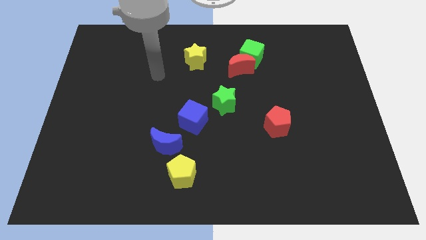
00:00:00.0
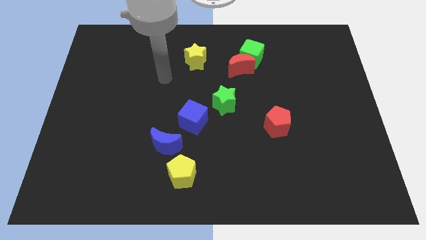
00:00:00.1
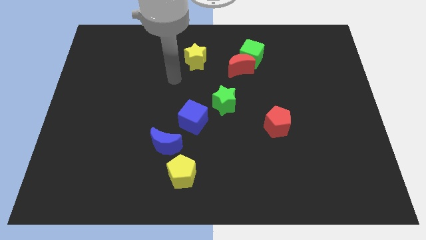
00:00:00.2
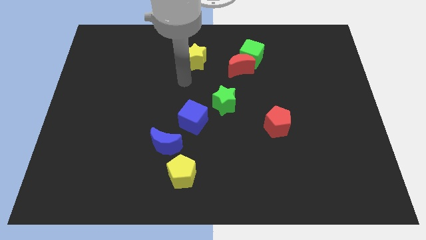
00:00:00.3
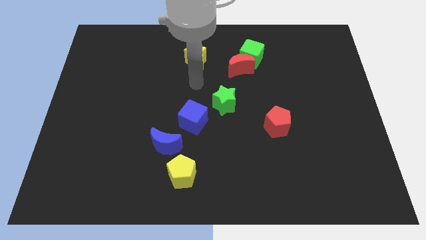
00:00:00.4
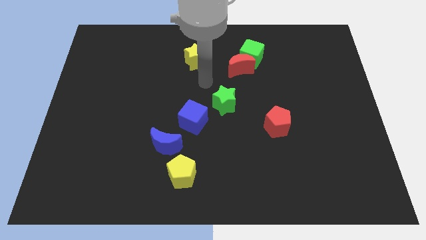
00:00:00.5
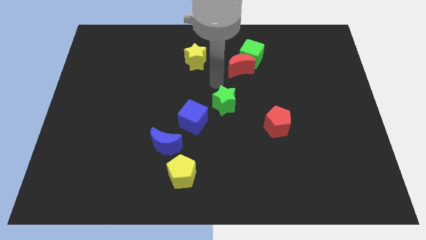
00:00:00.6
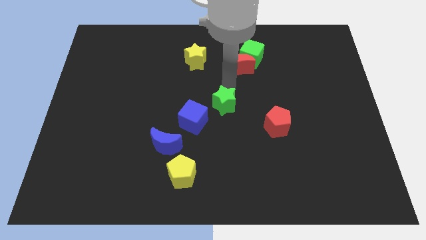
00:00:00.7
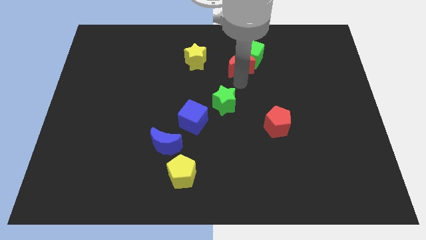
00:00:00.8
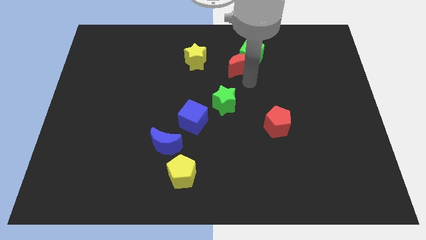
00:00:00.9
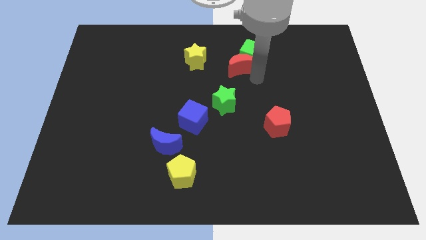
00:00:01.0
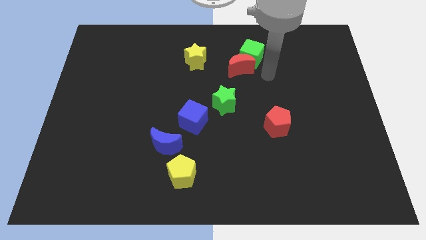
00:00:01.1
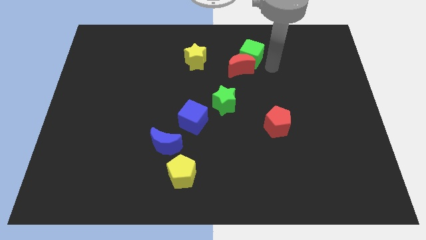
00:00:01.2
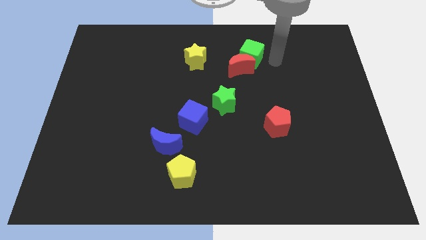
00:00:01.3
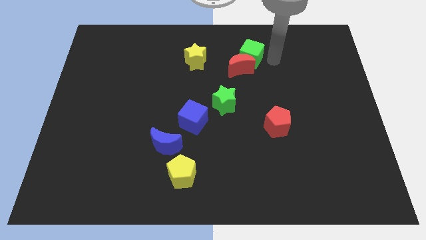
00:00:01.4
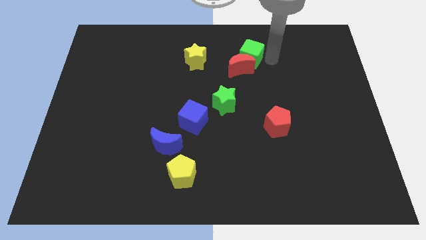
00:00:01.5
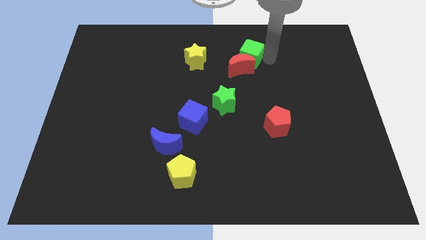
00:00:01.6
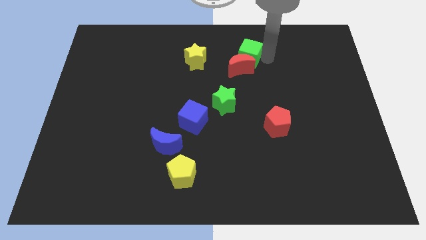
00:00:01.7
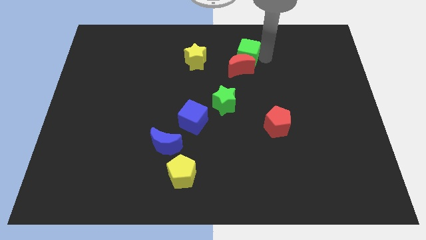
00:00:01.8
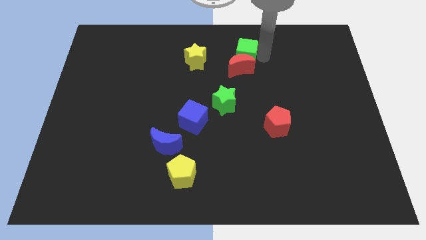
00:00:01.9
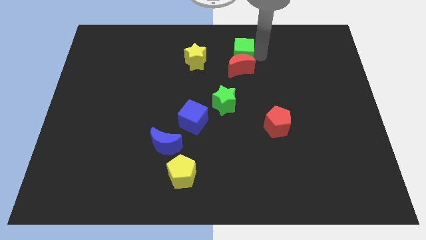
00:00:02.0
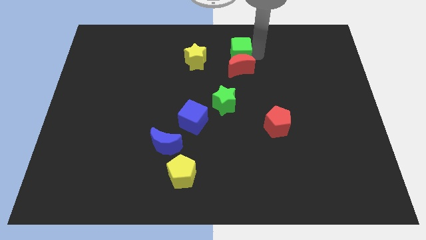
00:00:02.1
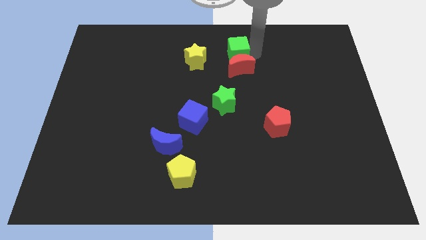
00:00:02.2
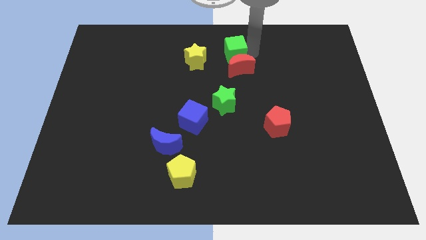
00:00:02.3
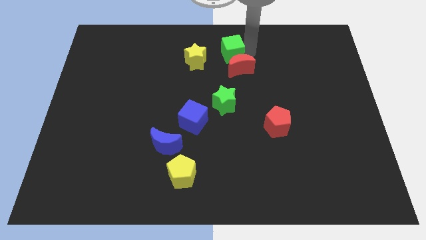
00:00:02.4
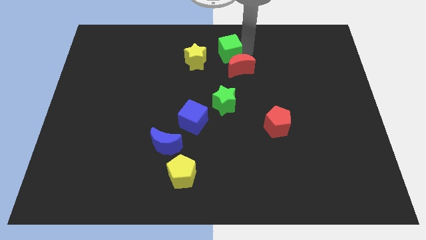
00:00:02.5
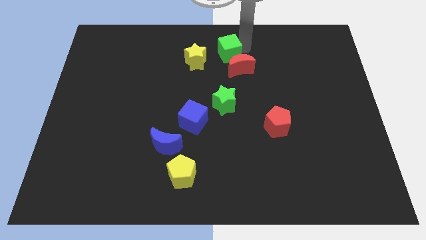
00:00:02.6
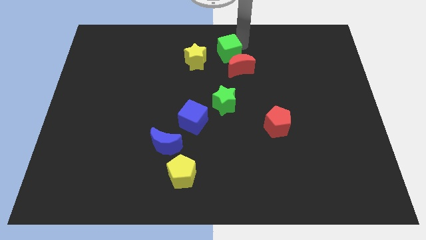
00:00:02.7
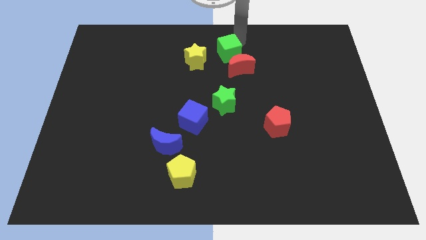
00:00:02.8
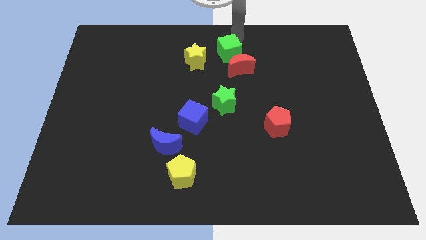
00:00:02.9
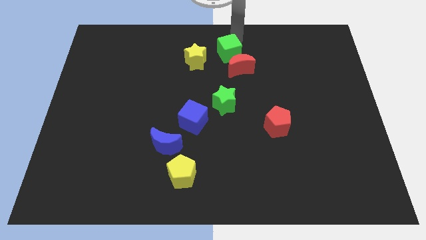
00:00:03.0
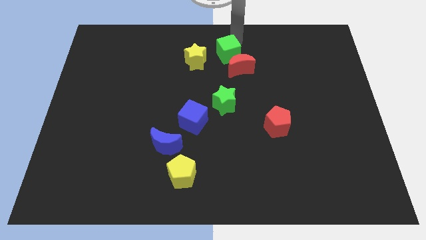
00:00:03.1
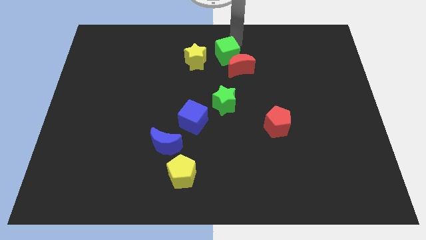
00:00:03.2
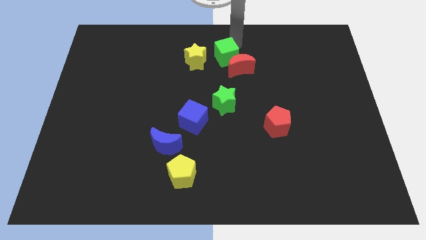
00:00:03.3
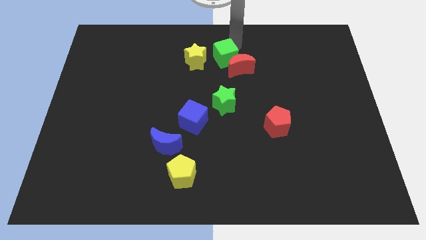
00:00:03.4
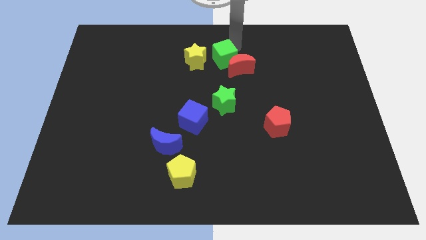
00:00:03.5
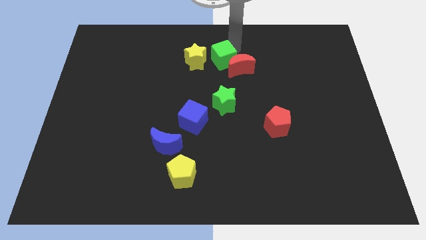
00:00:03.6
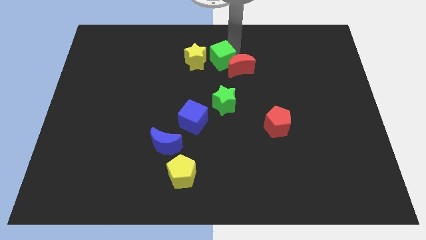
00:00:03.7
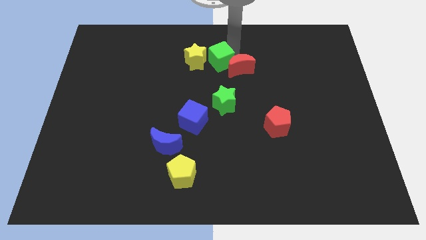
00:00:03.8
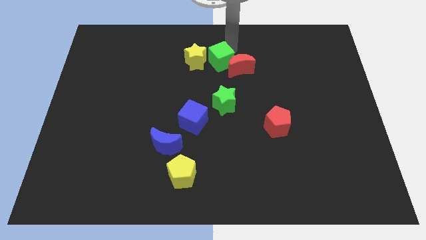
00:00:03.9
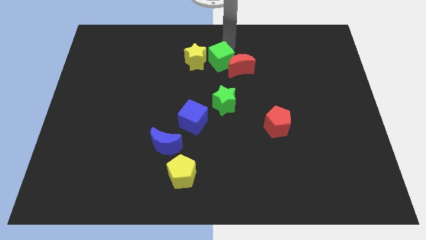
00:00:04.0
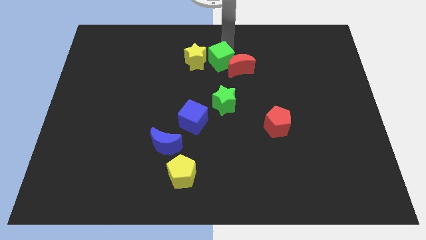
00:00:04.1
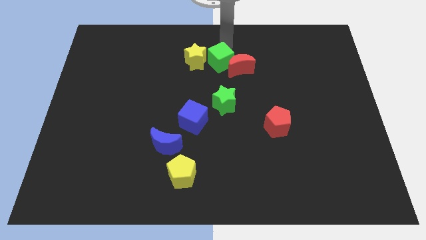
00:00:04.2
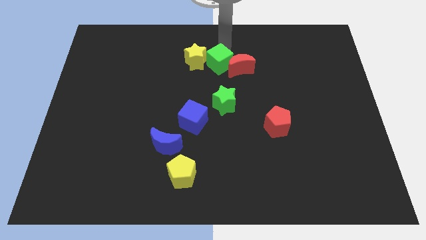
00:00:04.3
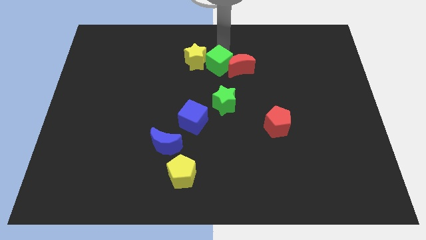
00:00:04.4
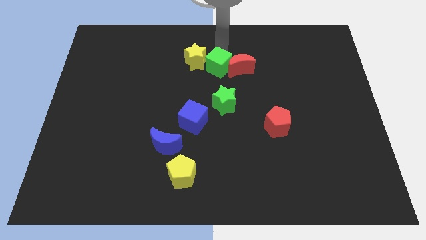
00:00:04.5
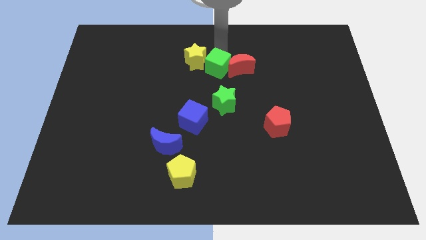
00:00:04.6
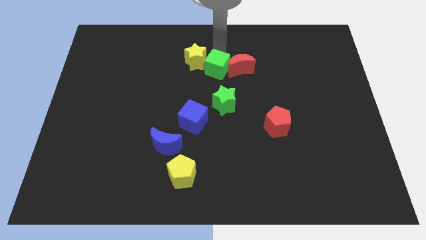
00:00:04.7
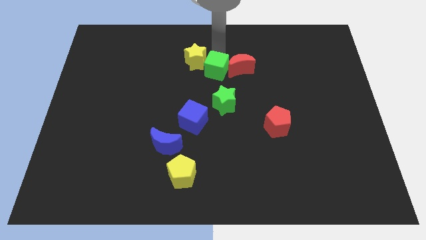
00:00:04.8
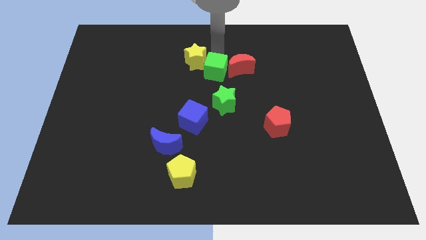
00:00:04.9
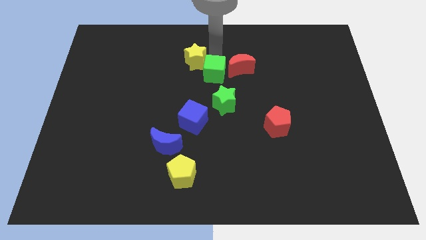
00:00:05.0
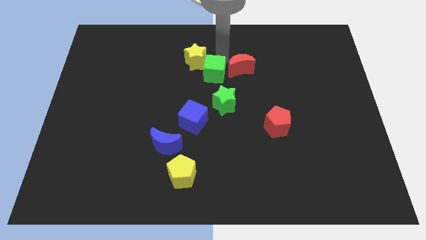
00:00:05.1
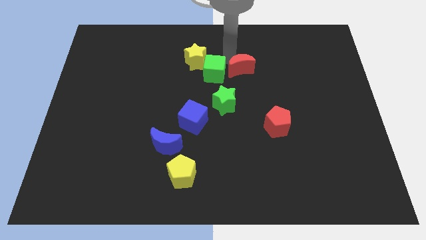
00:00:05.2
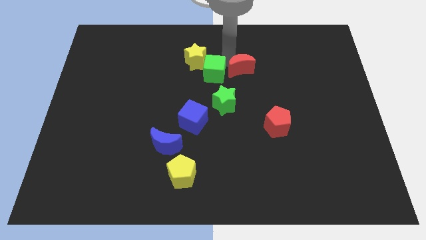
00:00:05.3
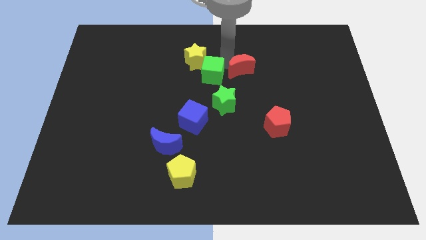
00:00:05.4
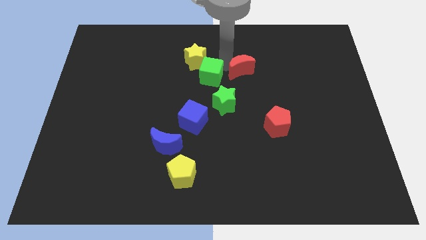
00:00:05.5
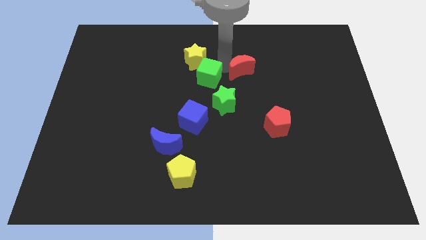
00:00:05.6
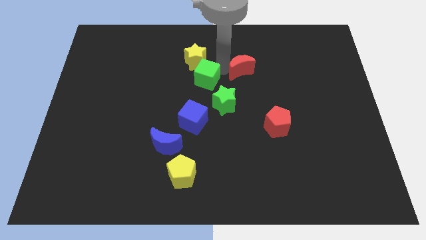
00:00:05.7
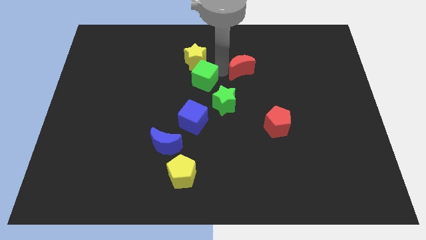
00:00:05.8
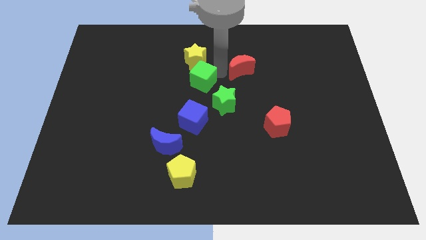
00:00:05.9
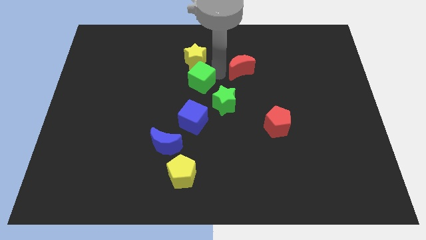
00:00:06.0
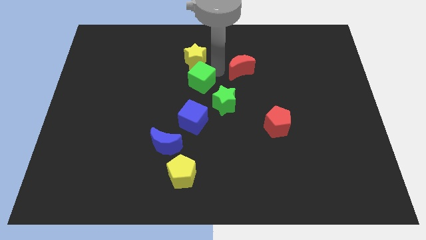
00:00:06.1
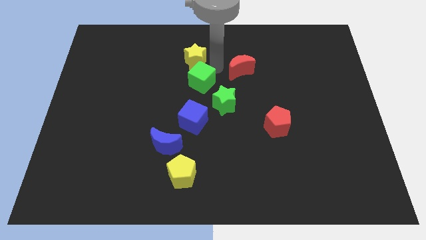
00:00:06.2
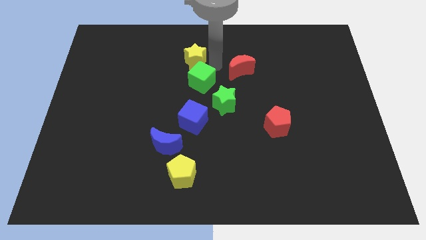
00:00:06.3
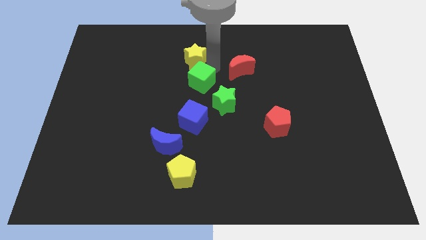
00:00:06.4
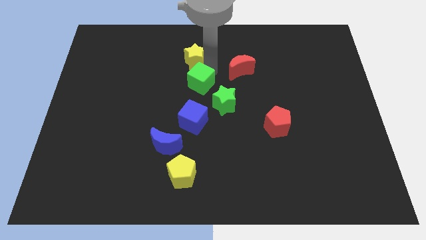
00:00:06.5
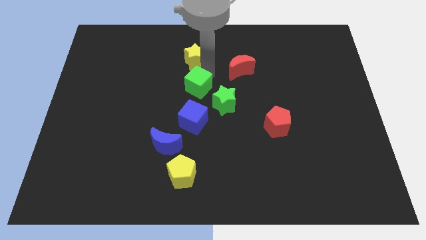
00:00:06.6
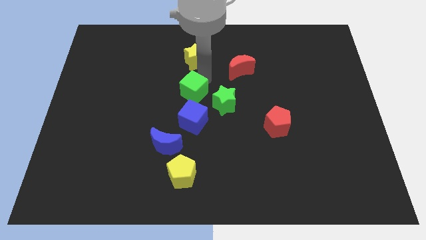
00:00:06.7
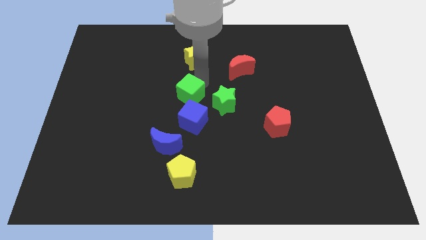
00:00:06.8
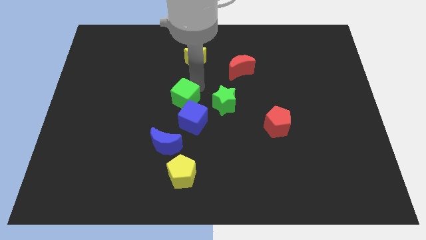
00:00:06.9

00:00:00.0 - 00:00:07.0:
slide the green cube down and left

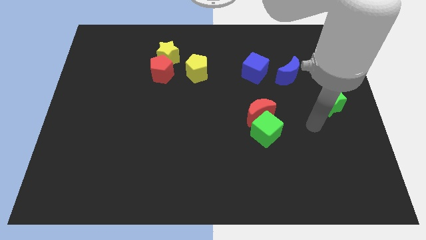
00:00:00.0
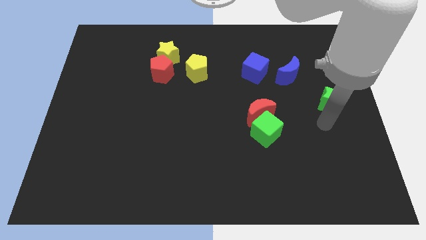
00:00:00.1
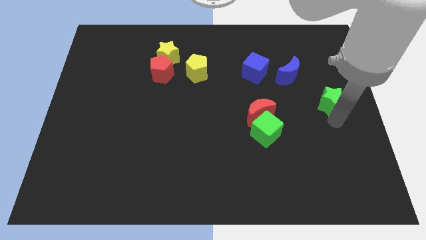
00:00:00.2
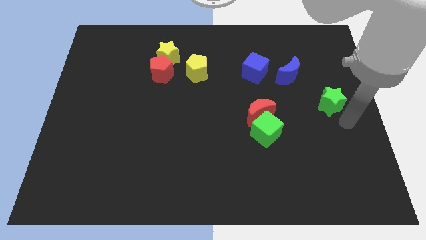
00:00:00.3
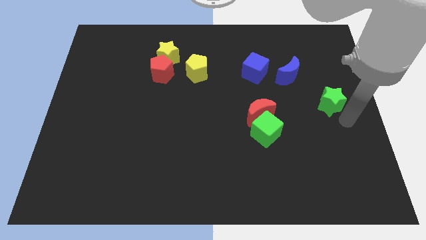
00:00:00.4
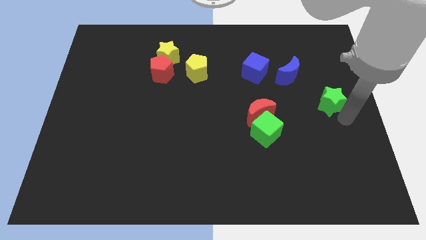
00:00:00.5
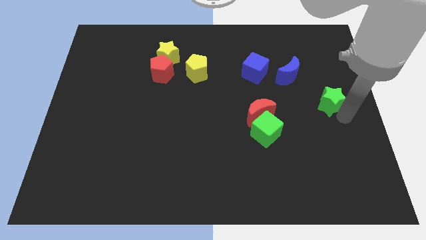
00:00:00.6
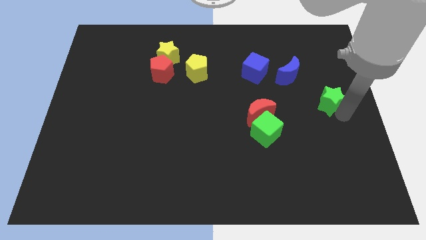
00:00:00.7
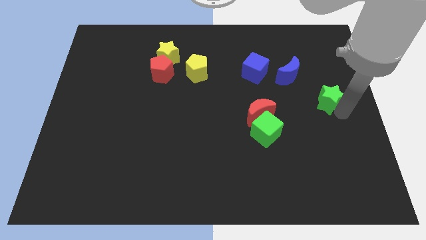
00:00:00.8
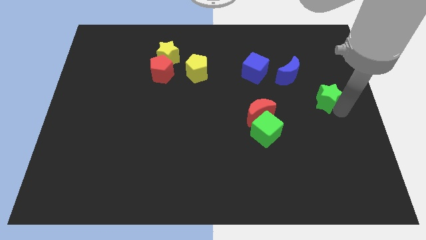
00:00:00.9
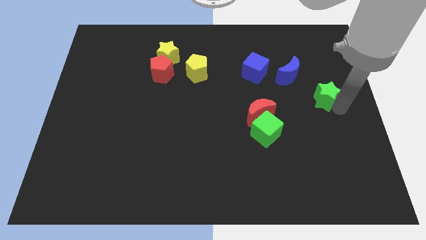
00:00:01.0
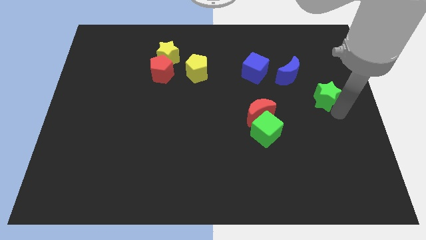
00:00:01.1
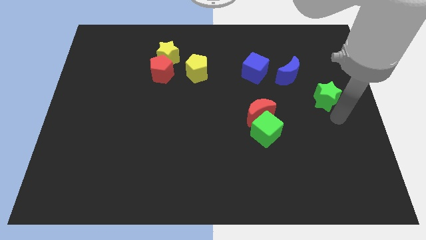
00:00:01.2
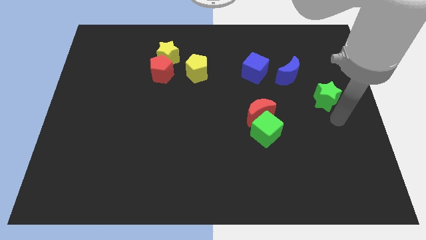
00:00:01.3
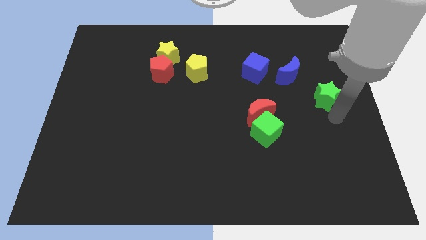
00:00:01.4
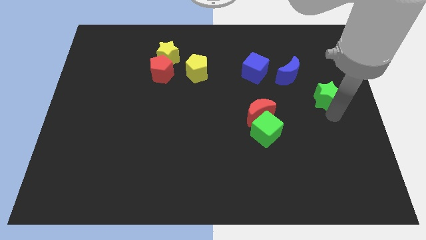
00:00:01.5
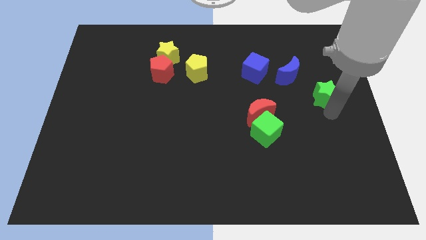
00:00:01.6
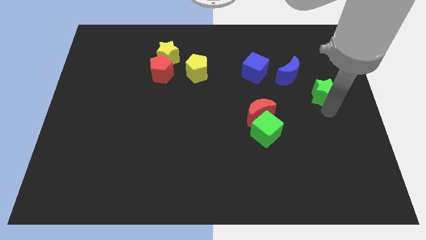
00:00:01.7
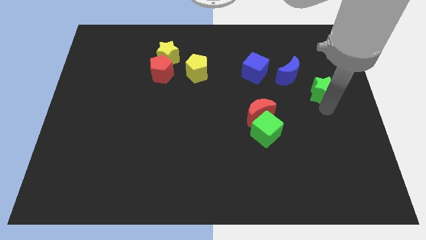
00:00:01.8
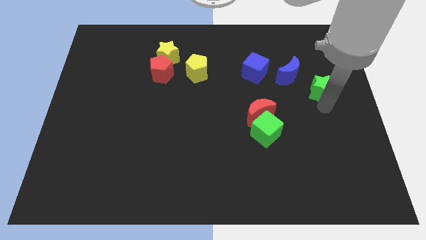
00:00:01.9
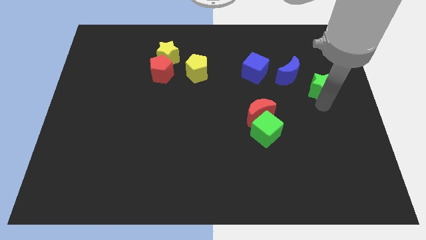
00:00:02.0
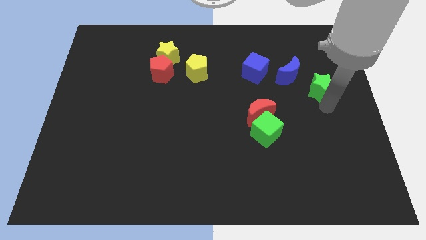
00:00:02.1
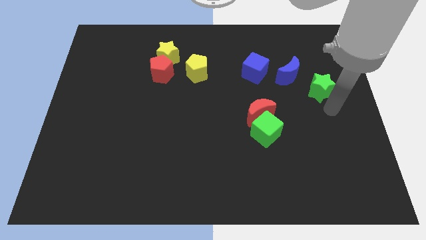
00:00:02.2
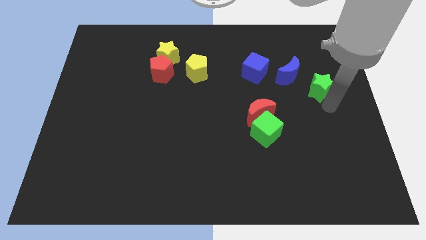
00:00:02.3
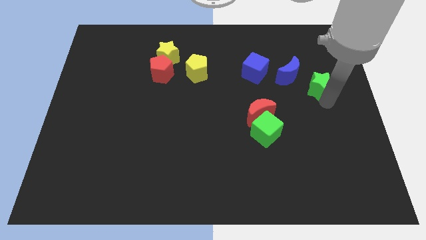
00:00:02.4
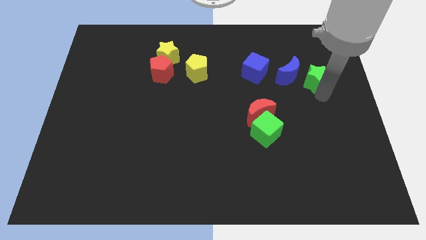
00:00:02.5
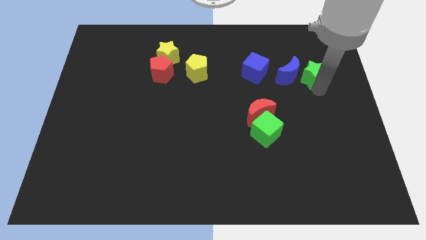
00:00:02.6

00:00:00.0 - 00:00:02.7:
slide the green star up and to the left diagonally a little bit
